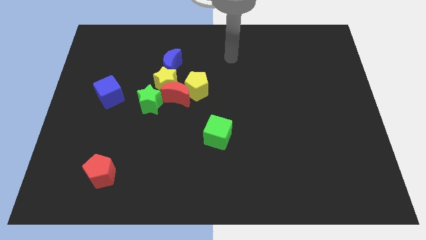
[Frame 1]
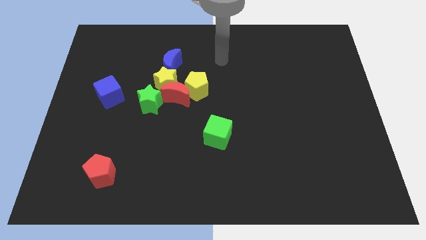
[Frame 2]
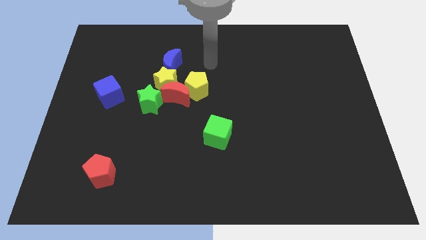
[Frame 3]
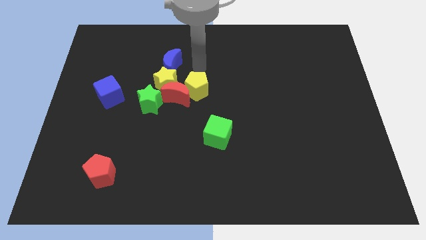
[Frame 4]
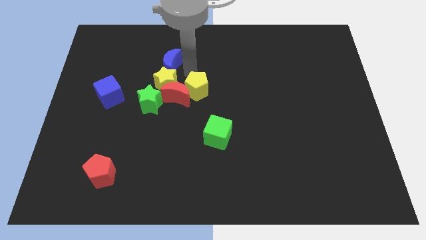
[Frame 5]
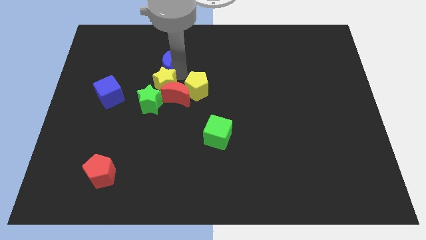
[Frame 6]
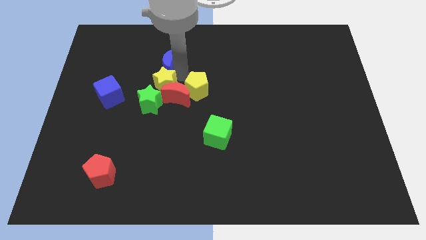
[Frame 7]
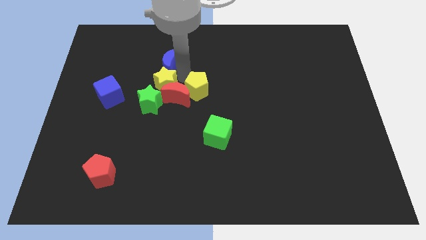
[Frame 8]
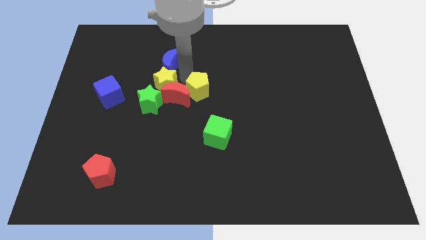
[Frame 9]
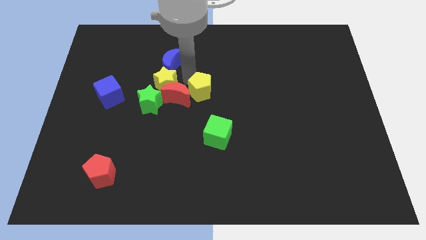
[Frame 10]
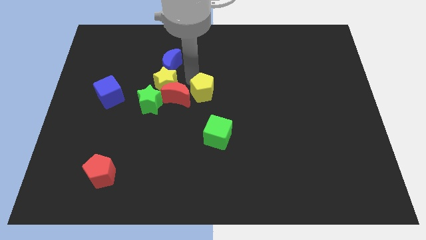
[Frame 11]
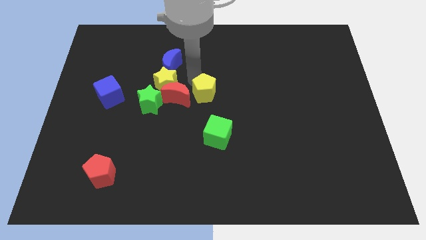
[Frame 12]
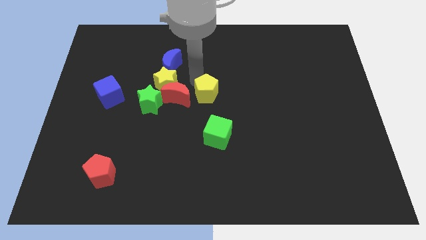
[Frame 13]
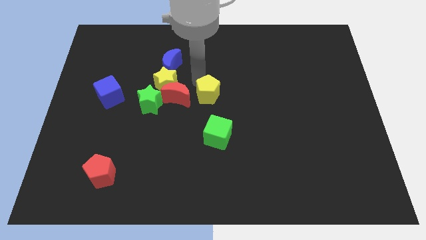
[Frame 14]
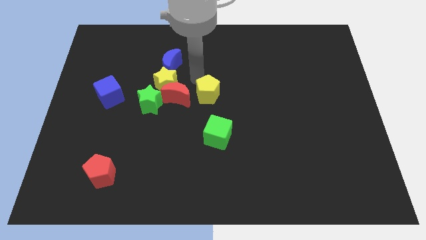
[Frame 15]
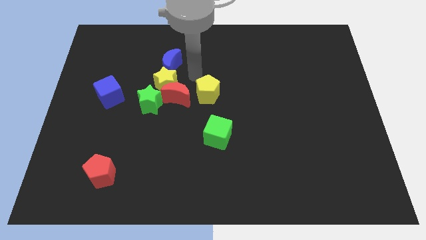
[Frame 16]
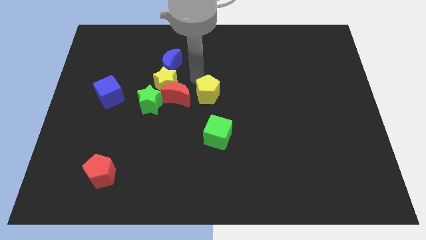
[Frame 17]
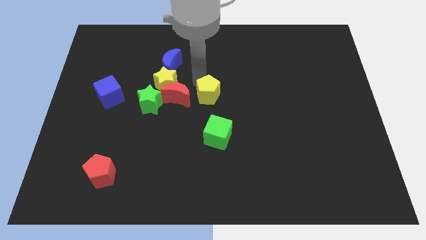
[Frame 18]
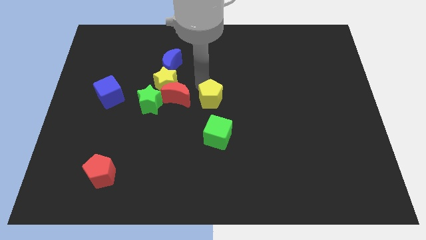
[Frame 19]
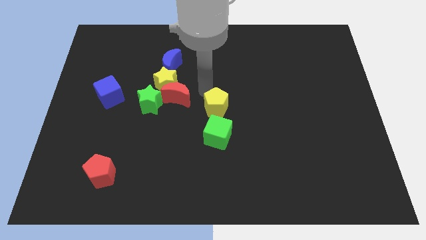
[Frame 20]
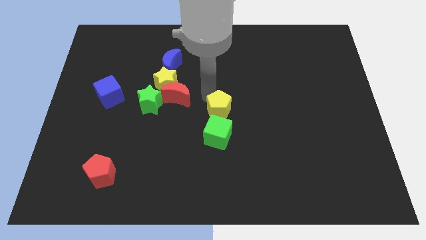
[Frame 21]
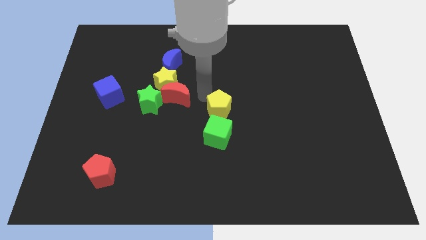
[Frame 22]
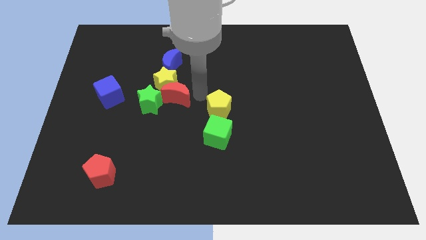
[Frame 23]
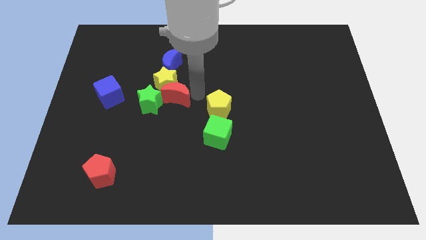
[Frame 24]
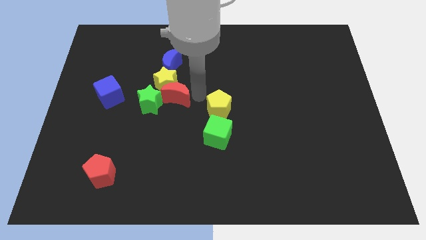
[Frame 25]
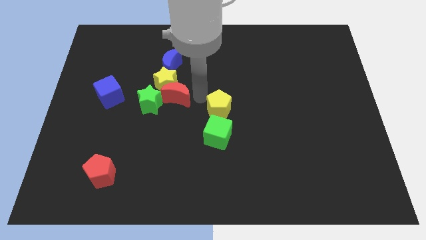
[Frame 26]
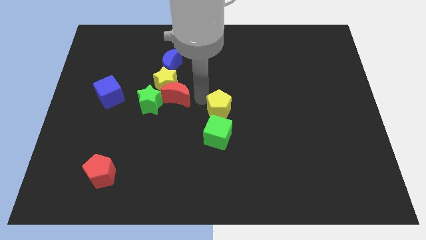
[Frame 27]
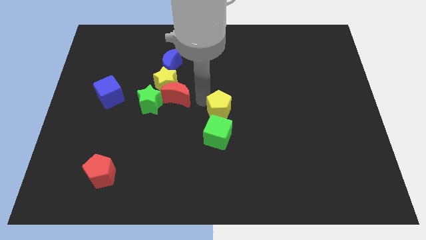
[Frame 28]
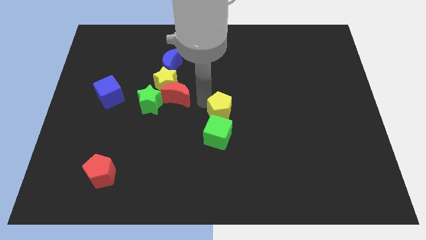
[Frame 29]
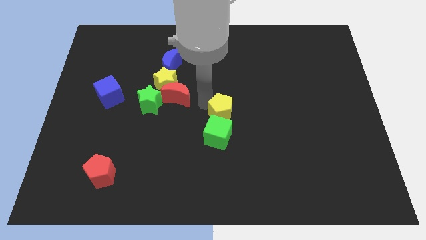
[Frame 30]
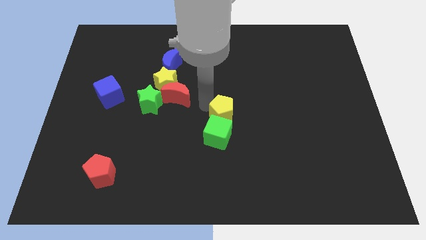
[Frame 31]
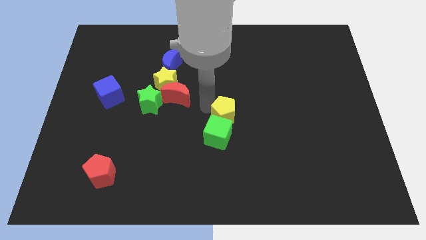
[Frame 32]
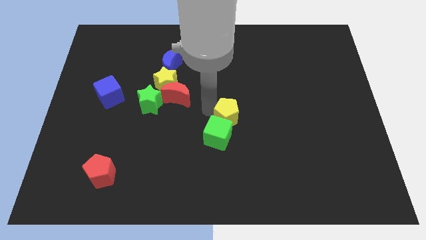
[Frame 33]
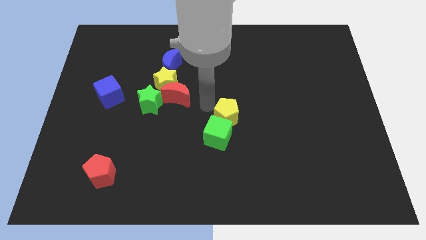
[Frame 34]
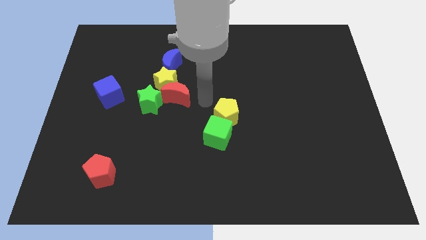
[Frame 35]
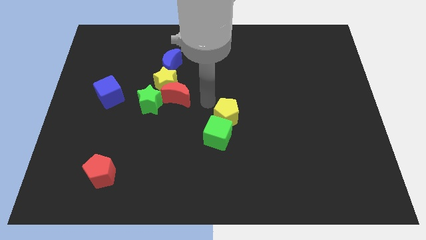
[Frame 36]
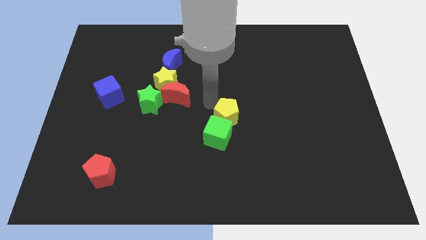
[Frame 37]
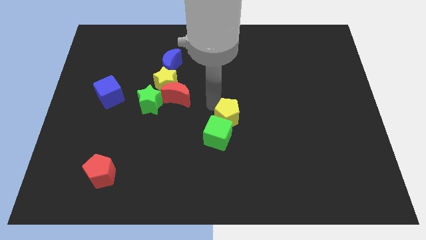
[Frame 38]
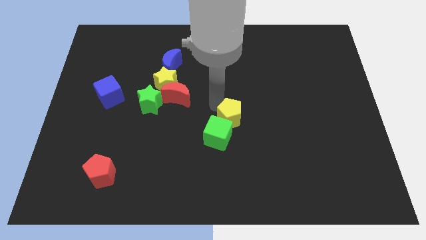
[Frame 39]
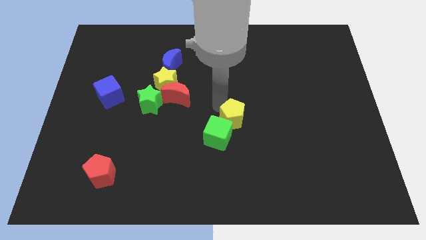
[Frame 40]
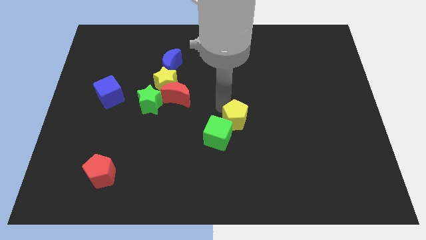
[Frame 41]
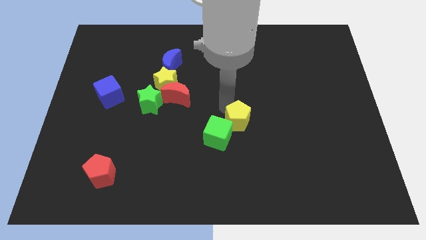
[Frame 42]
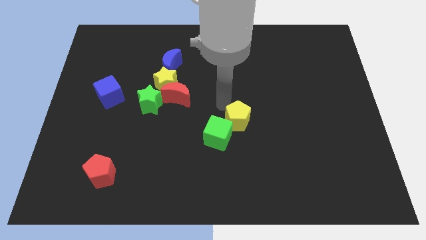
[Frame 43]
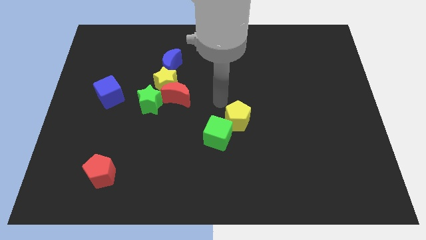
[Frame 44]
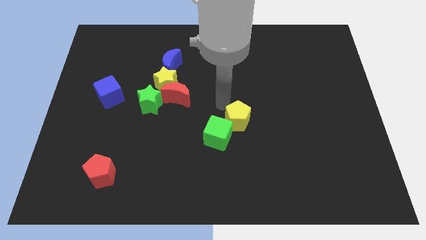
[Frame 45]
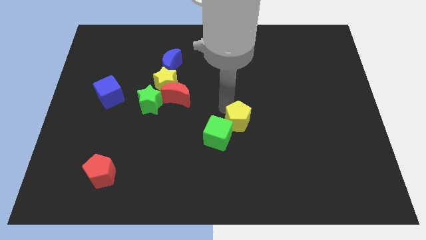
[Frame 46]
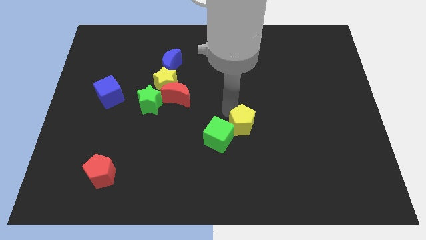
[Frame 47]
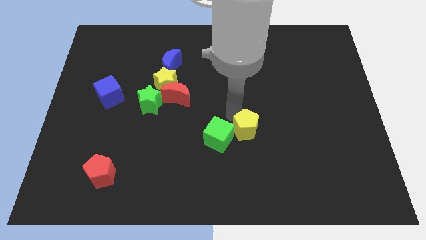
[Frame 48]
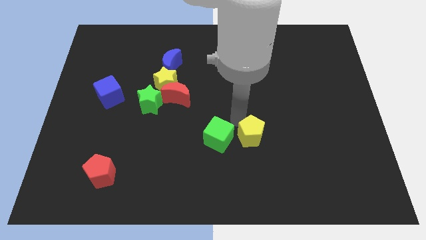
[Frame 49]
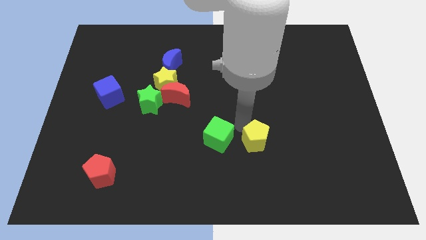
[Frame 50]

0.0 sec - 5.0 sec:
move the yellow pentagon downwards and to the right

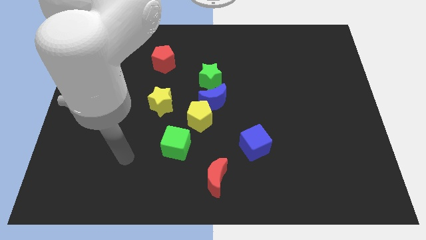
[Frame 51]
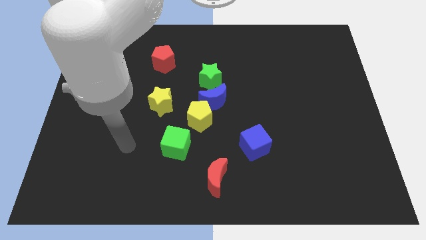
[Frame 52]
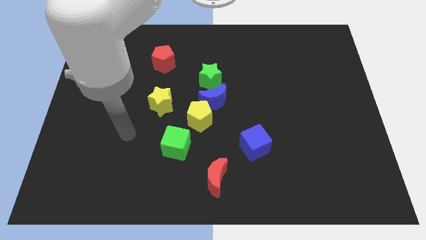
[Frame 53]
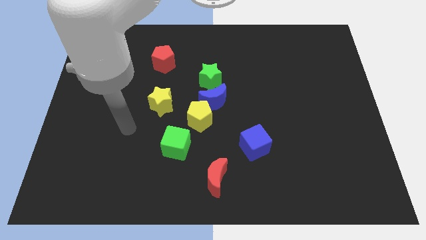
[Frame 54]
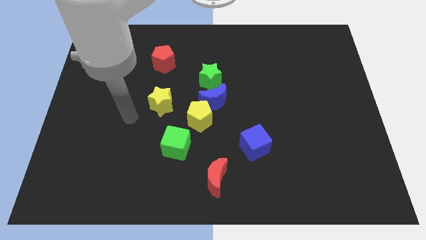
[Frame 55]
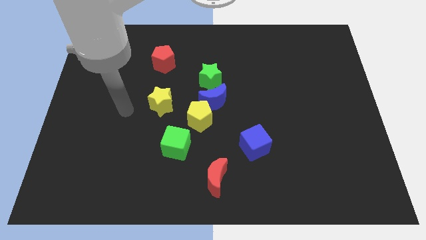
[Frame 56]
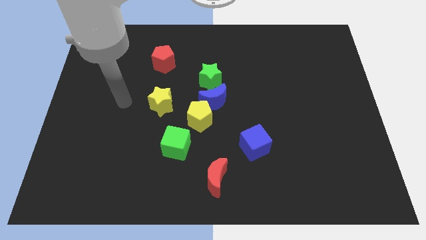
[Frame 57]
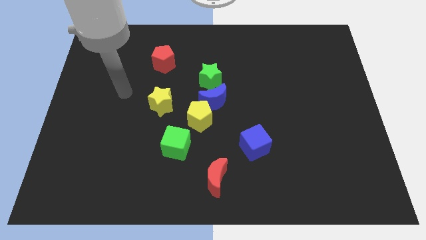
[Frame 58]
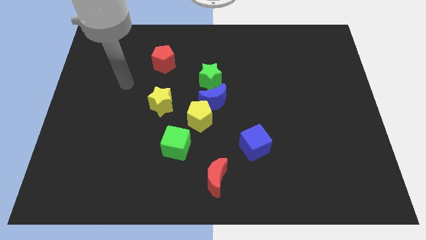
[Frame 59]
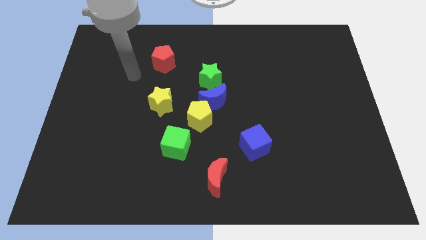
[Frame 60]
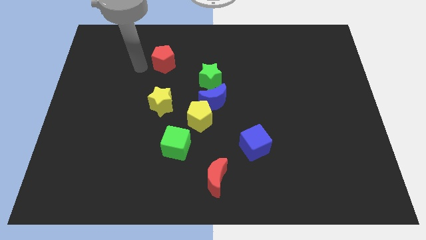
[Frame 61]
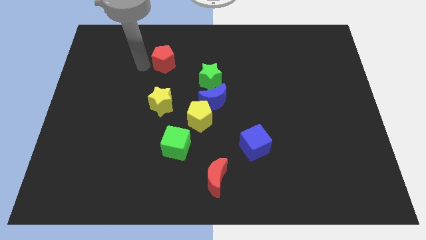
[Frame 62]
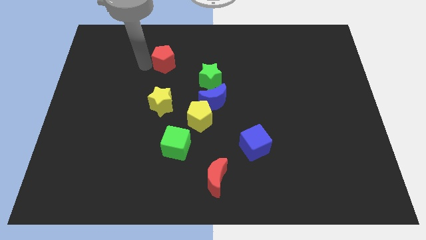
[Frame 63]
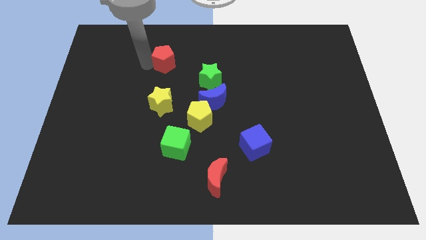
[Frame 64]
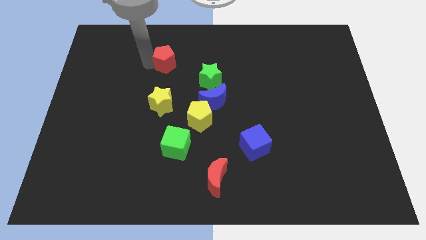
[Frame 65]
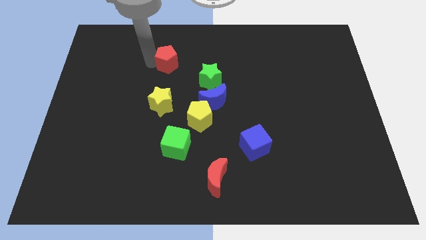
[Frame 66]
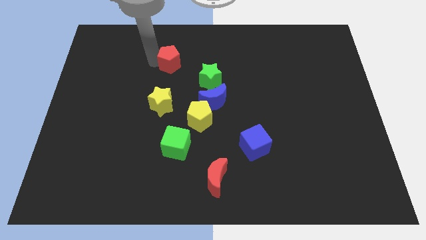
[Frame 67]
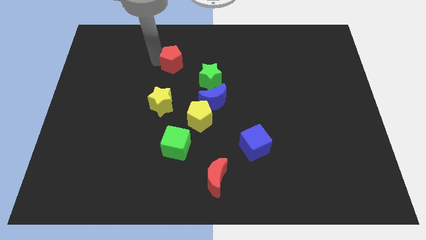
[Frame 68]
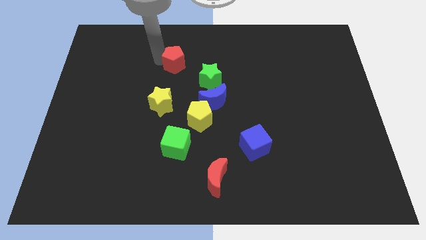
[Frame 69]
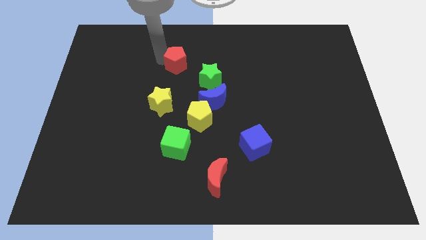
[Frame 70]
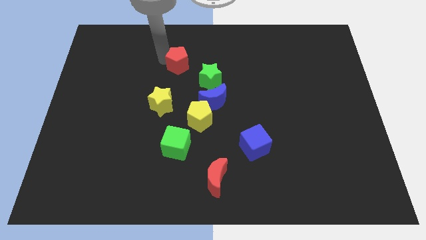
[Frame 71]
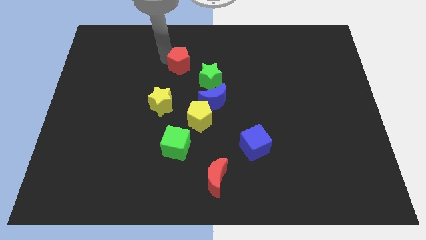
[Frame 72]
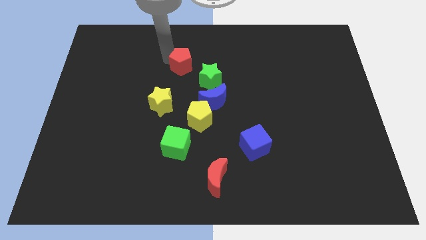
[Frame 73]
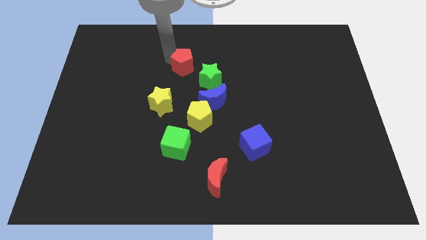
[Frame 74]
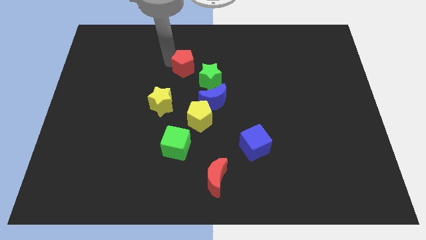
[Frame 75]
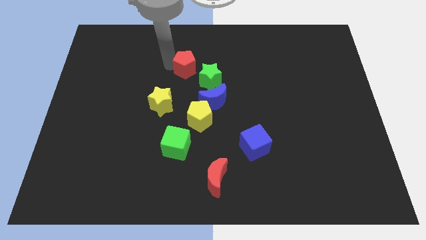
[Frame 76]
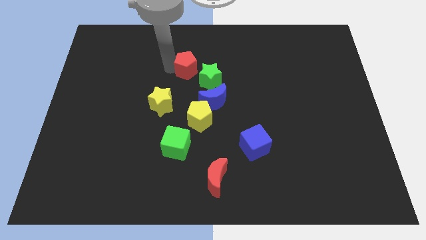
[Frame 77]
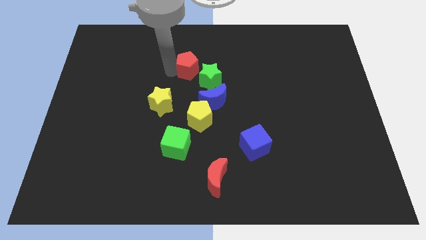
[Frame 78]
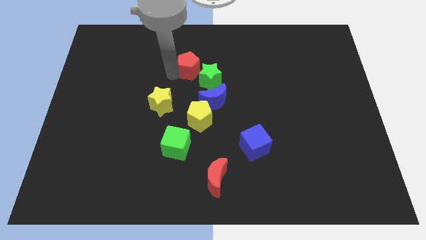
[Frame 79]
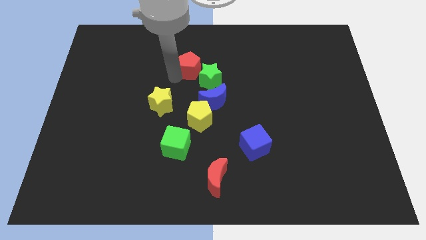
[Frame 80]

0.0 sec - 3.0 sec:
move the red pentagon to the right a little bit
